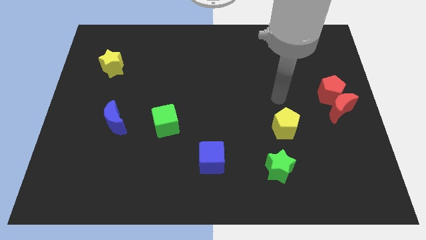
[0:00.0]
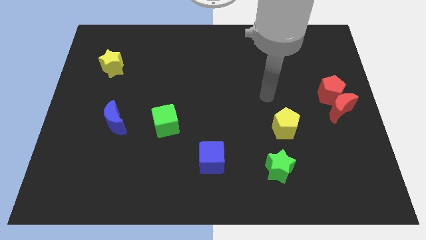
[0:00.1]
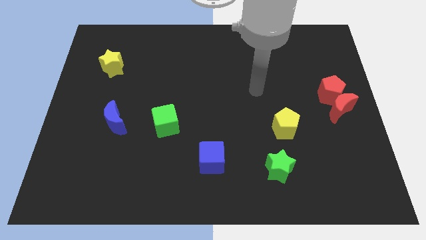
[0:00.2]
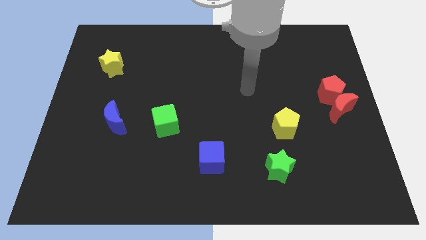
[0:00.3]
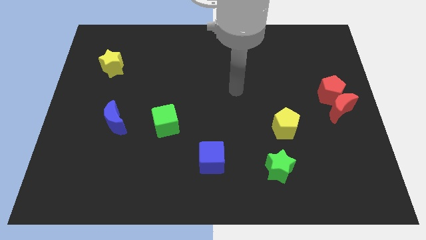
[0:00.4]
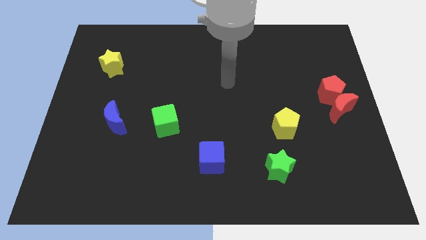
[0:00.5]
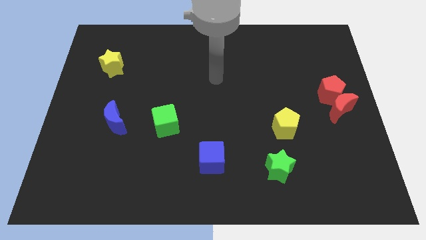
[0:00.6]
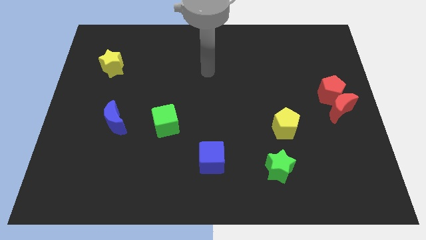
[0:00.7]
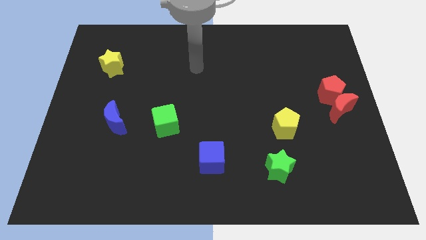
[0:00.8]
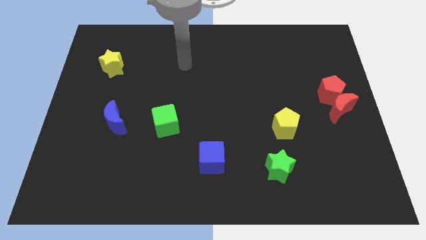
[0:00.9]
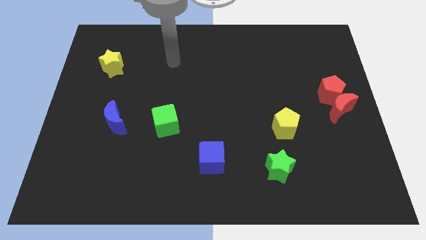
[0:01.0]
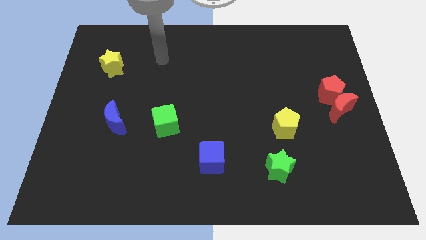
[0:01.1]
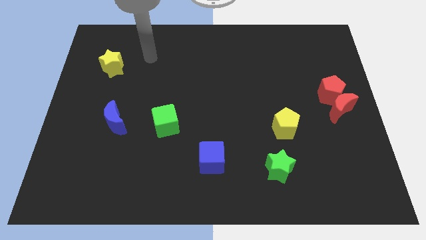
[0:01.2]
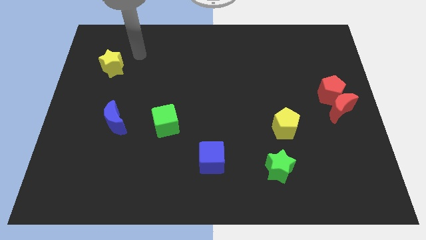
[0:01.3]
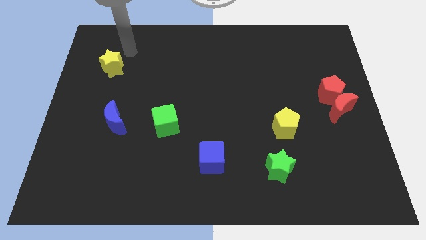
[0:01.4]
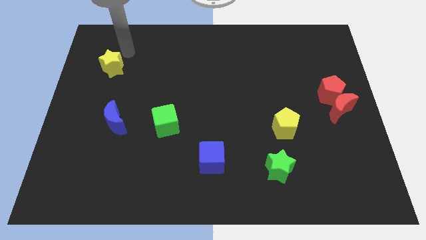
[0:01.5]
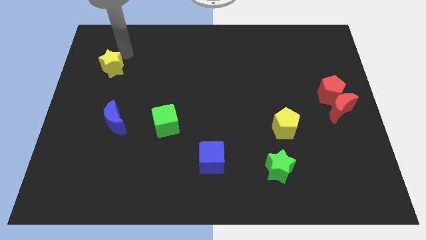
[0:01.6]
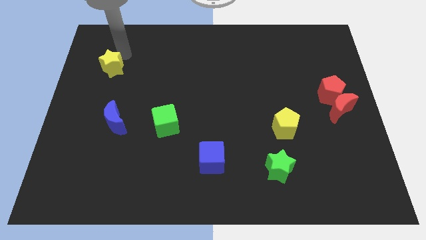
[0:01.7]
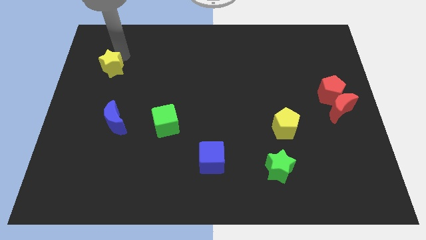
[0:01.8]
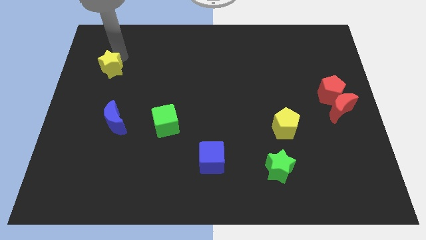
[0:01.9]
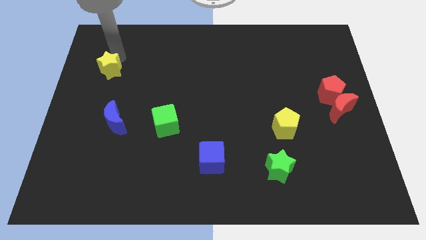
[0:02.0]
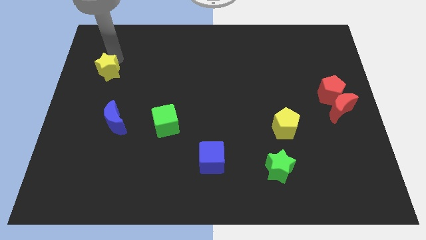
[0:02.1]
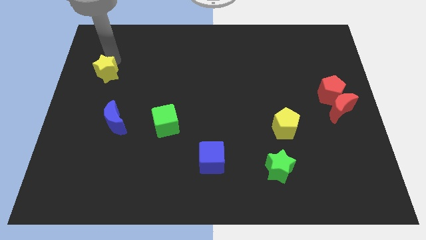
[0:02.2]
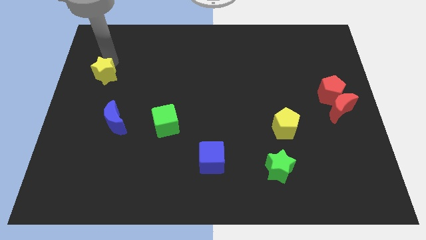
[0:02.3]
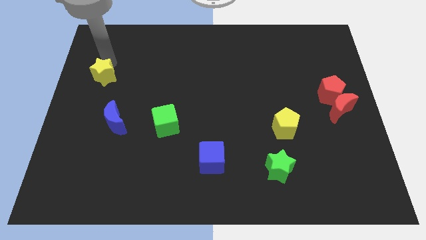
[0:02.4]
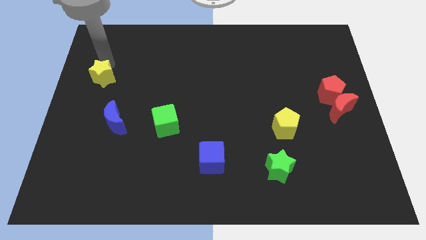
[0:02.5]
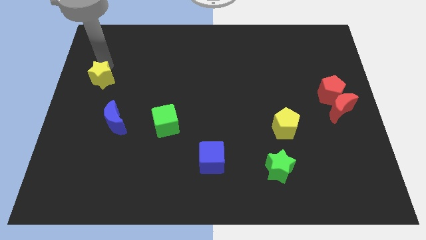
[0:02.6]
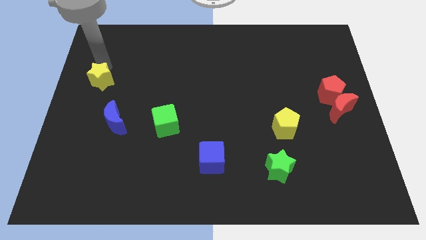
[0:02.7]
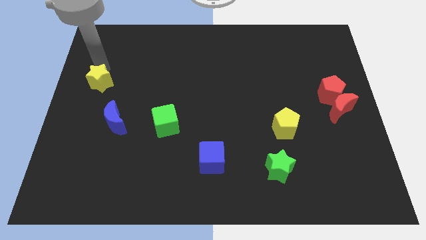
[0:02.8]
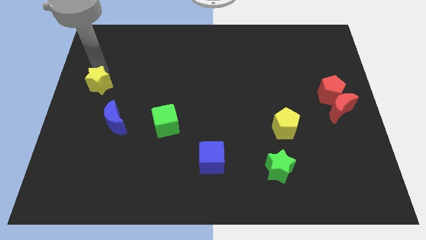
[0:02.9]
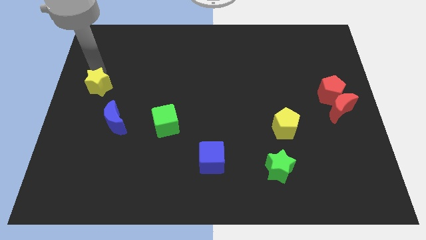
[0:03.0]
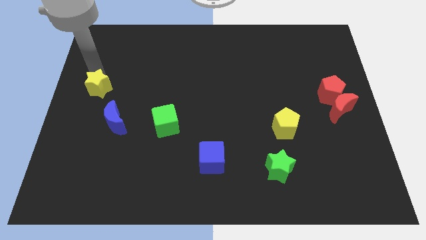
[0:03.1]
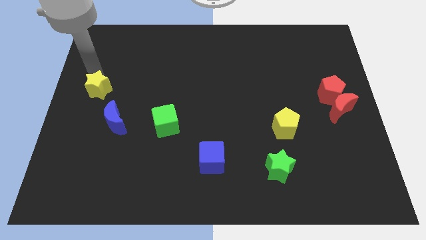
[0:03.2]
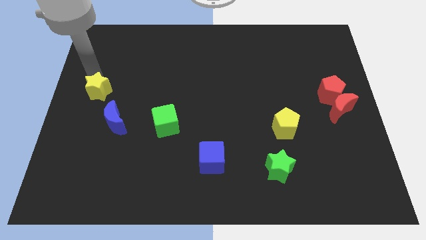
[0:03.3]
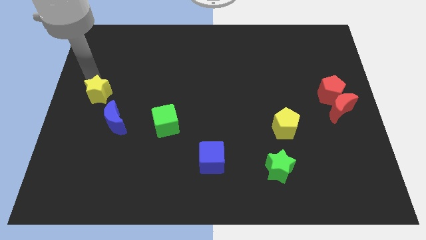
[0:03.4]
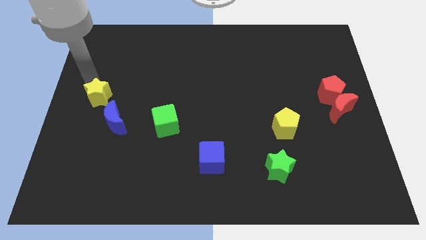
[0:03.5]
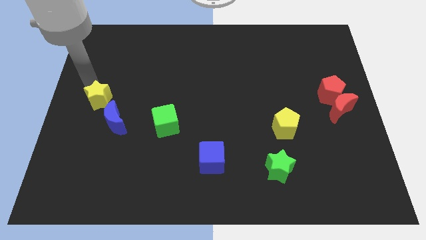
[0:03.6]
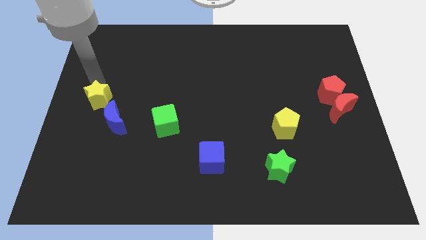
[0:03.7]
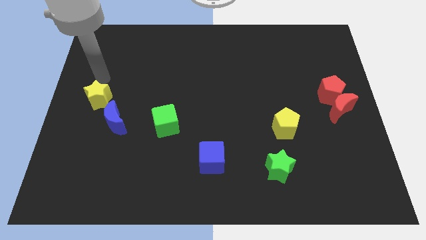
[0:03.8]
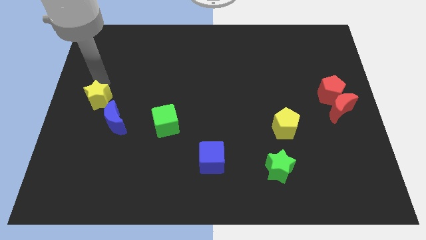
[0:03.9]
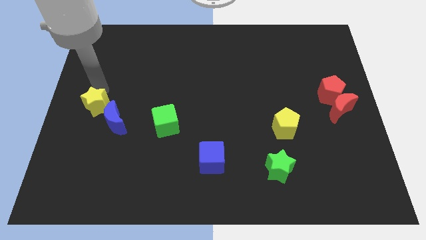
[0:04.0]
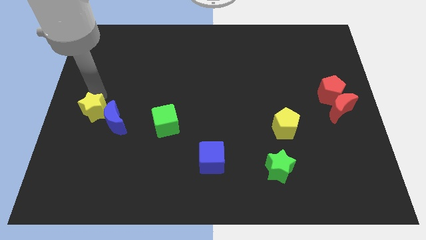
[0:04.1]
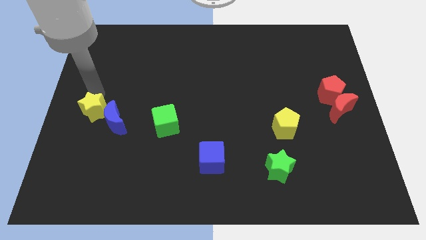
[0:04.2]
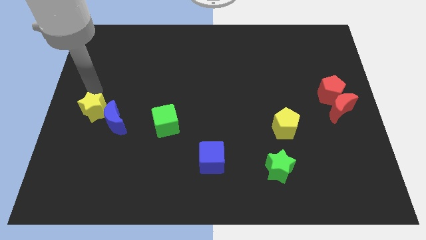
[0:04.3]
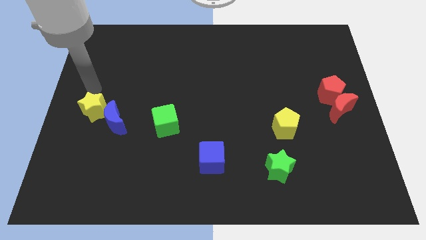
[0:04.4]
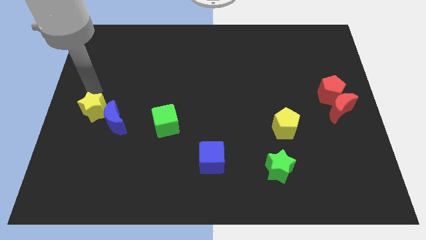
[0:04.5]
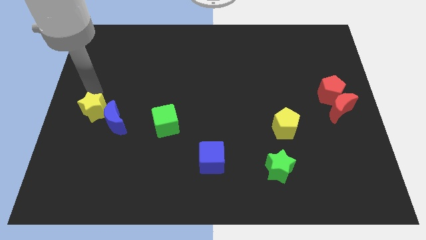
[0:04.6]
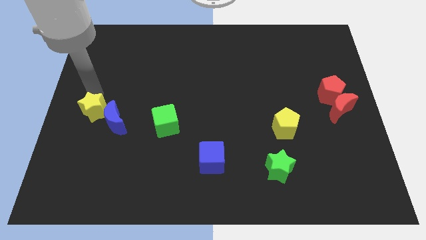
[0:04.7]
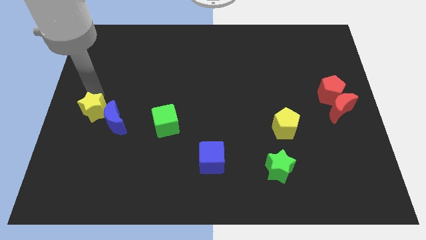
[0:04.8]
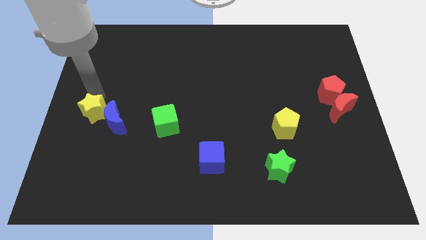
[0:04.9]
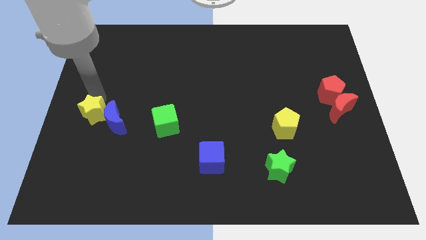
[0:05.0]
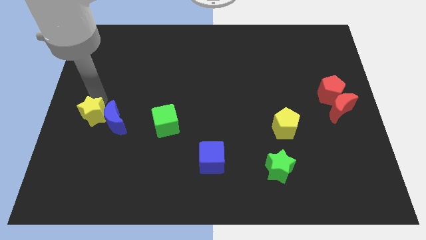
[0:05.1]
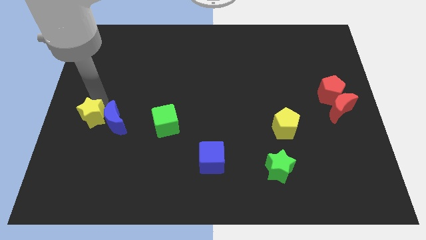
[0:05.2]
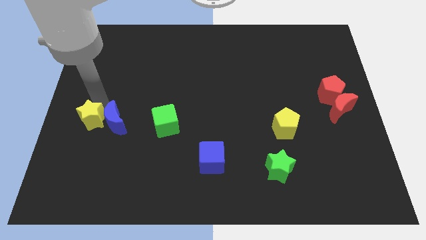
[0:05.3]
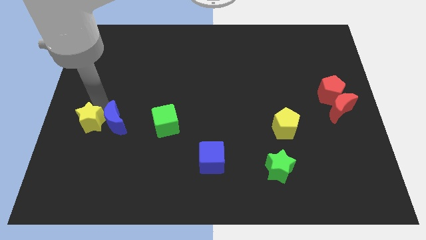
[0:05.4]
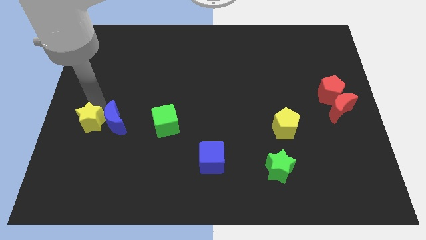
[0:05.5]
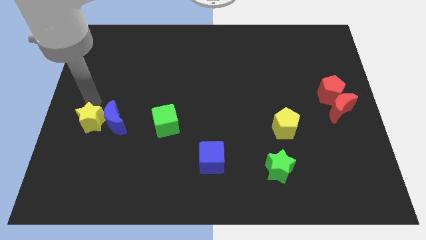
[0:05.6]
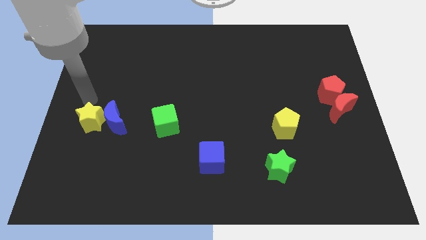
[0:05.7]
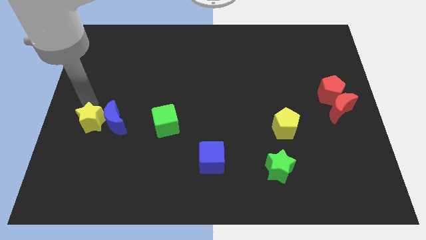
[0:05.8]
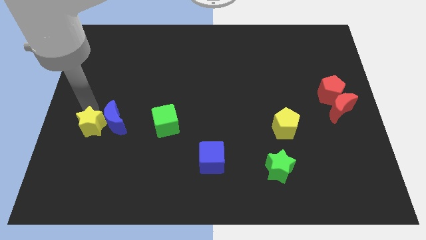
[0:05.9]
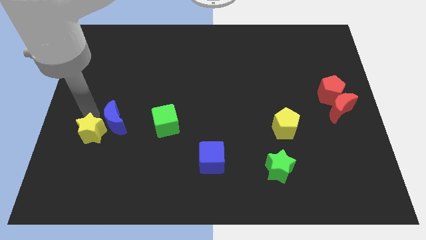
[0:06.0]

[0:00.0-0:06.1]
slide the yellow star downwards

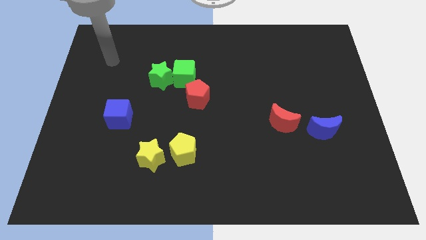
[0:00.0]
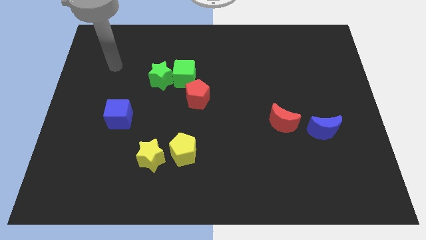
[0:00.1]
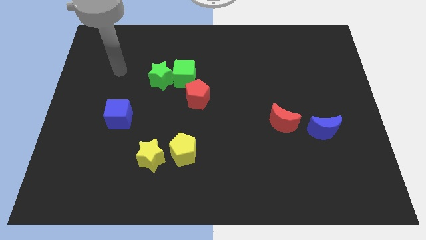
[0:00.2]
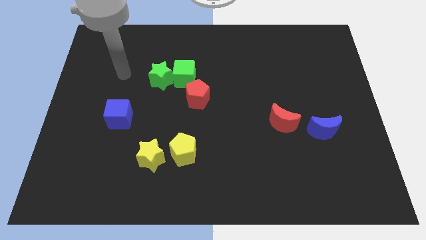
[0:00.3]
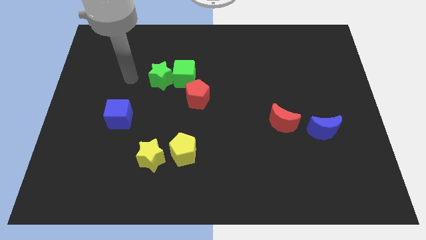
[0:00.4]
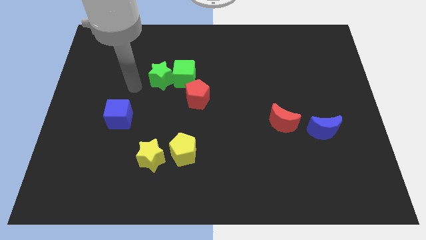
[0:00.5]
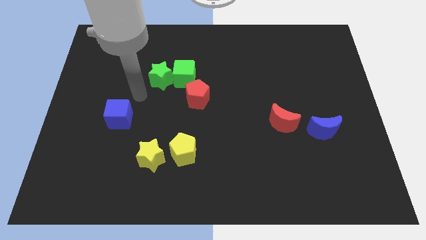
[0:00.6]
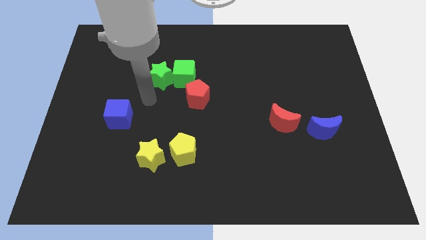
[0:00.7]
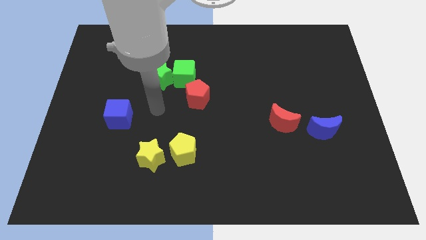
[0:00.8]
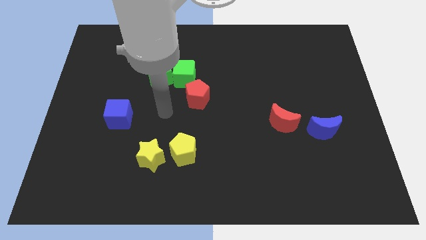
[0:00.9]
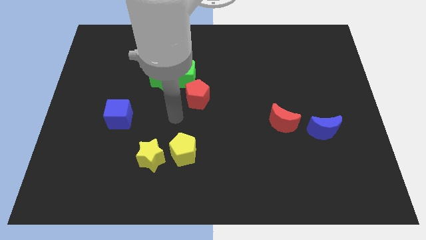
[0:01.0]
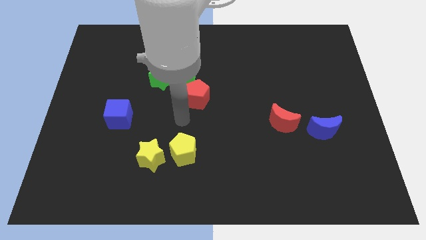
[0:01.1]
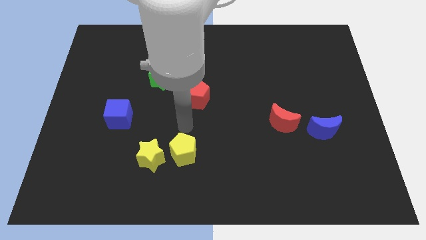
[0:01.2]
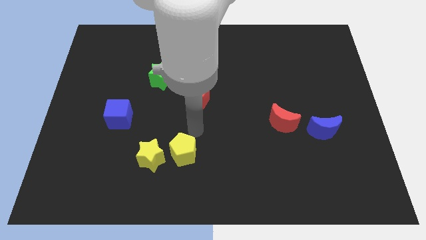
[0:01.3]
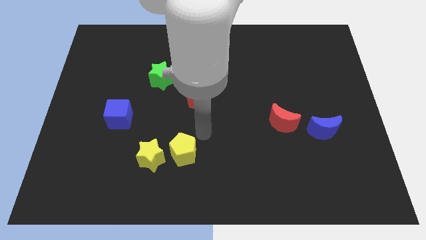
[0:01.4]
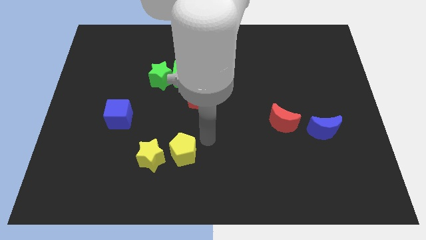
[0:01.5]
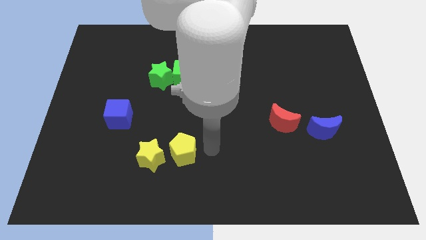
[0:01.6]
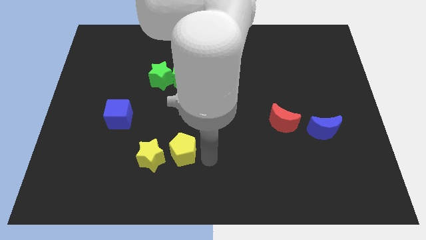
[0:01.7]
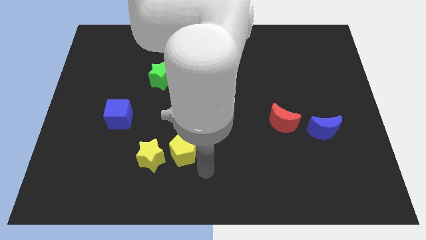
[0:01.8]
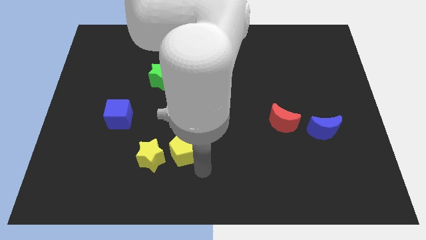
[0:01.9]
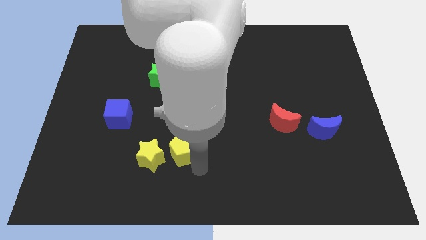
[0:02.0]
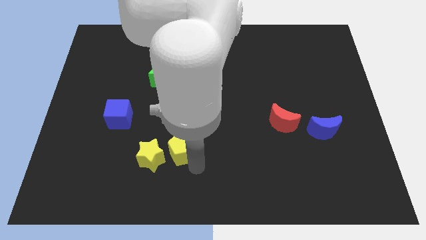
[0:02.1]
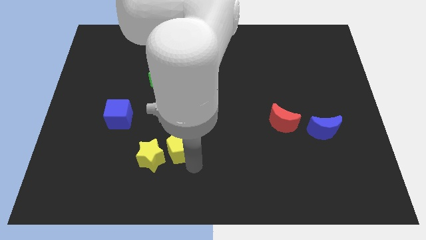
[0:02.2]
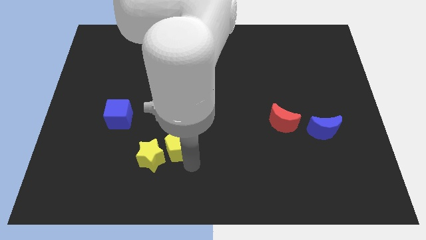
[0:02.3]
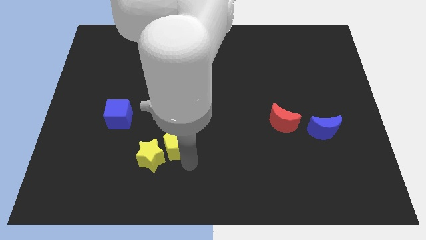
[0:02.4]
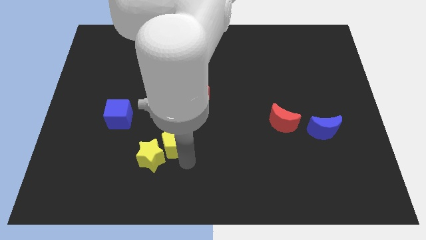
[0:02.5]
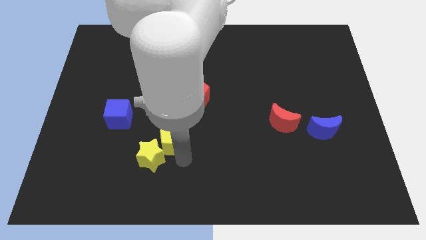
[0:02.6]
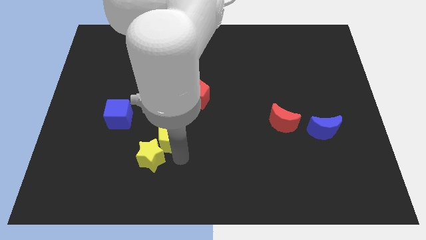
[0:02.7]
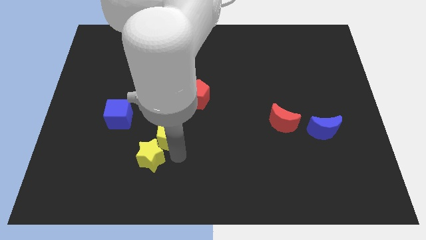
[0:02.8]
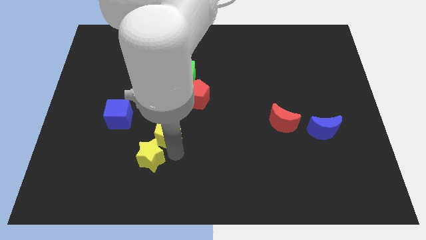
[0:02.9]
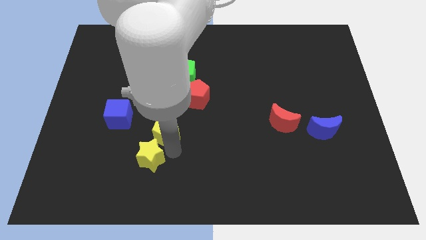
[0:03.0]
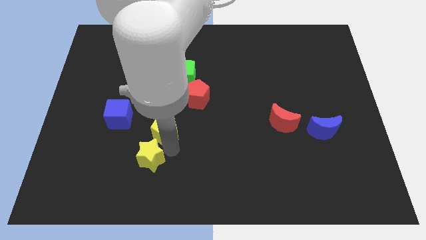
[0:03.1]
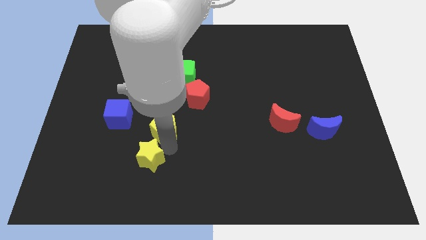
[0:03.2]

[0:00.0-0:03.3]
move the yellow pentagon a little bit upwards and then to the left
